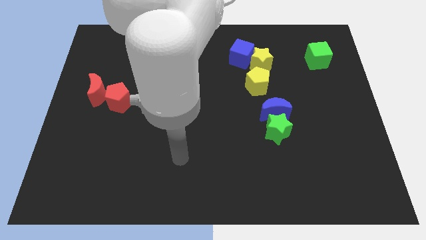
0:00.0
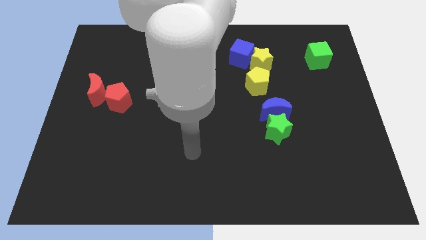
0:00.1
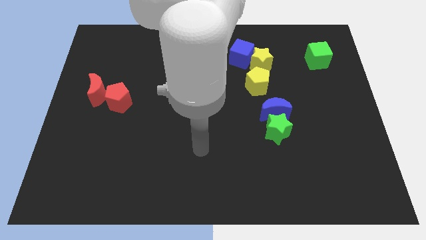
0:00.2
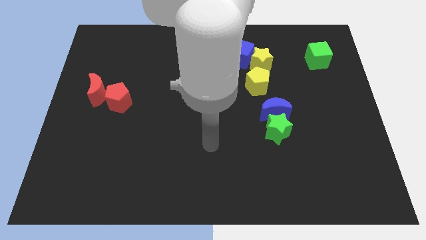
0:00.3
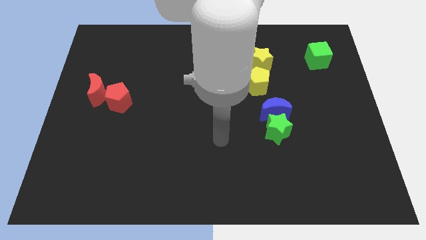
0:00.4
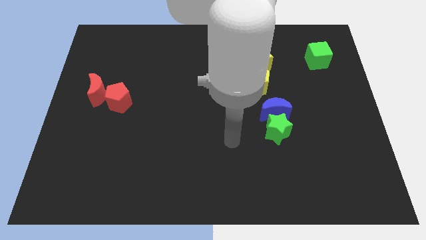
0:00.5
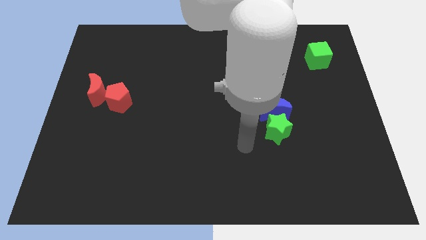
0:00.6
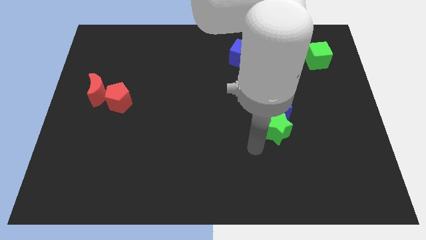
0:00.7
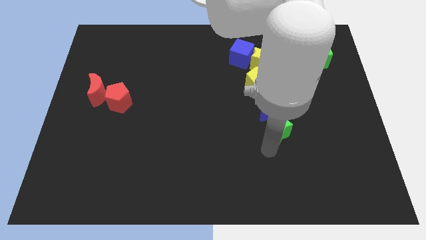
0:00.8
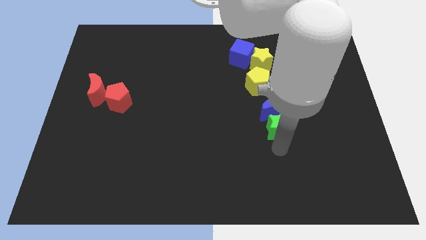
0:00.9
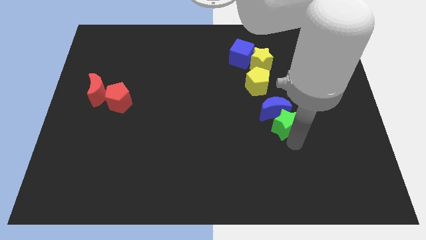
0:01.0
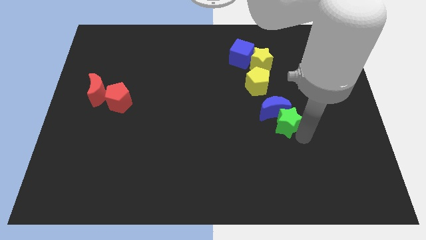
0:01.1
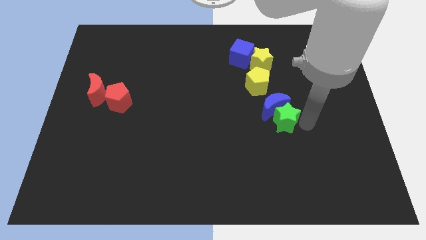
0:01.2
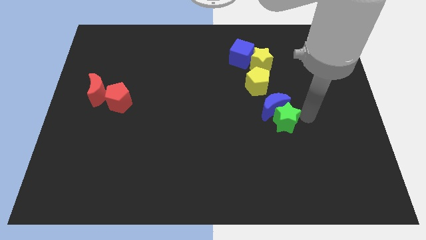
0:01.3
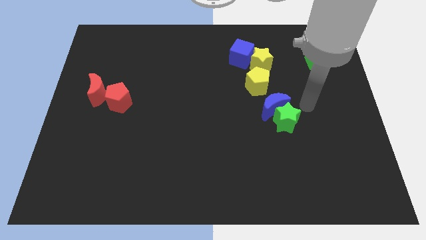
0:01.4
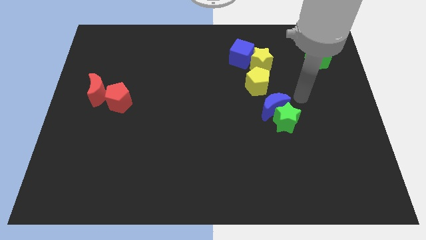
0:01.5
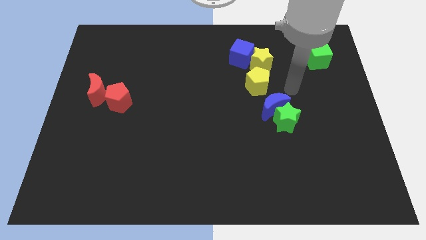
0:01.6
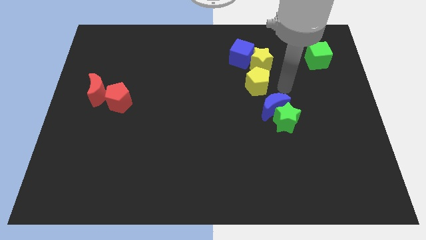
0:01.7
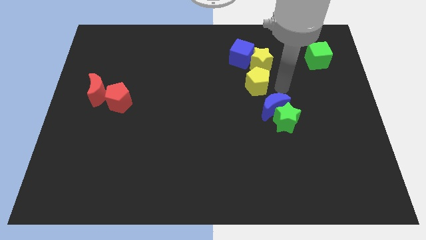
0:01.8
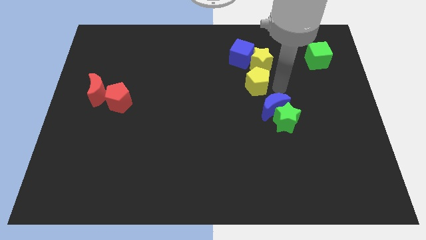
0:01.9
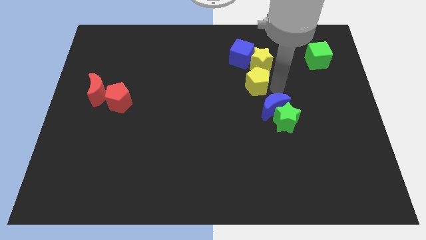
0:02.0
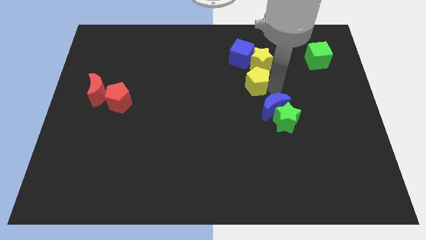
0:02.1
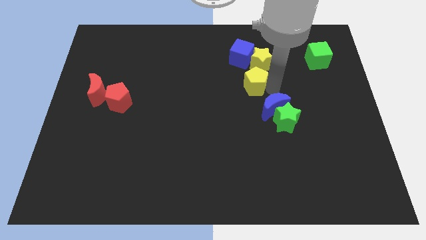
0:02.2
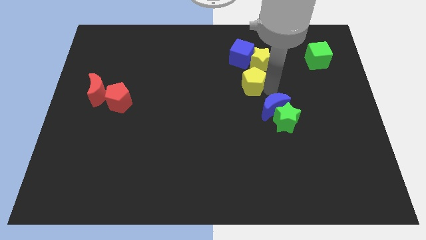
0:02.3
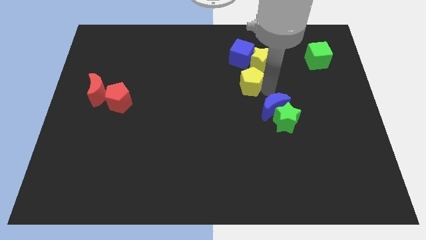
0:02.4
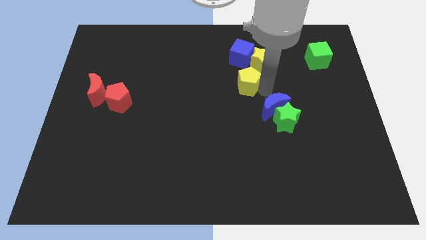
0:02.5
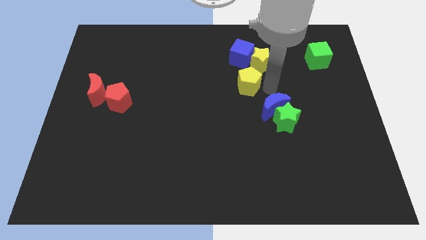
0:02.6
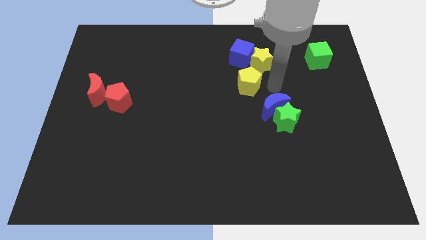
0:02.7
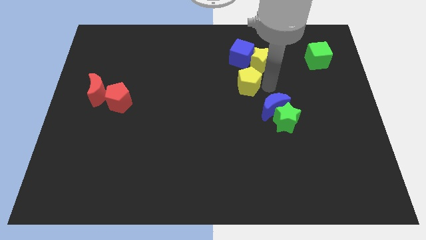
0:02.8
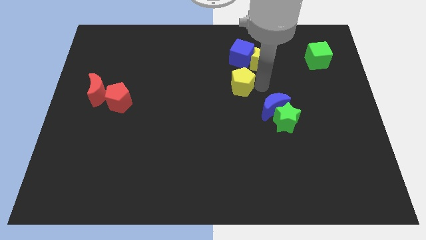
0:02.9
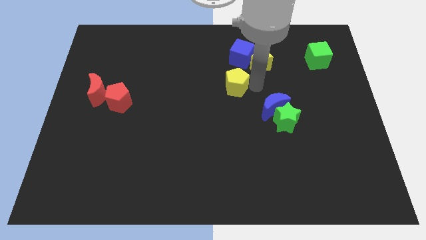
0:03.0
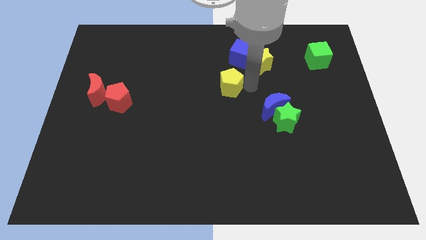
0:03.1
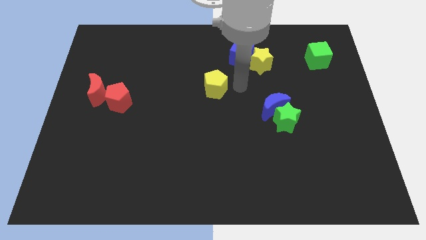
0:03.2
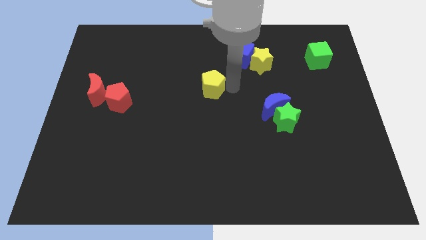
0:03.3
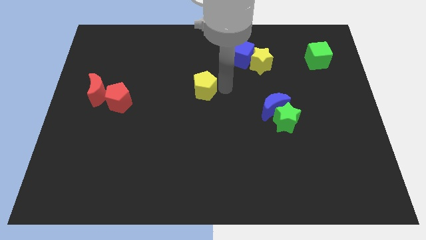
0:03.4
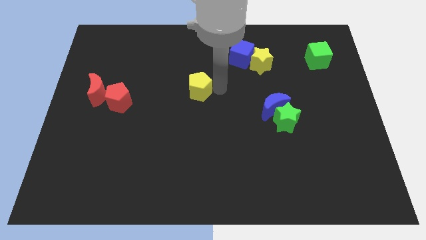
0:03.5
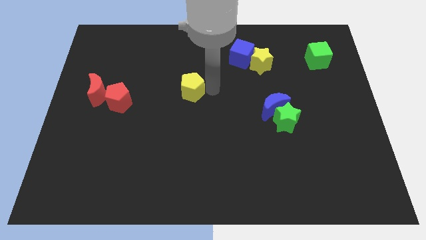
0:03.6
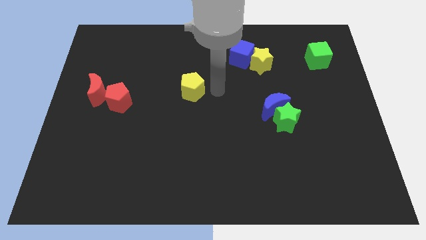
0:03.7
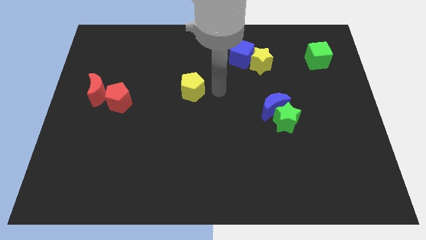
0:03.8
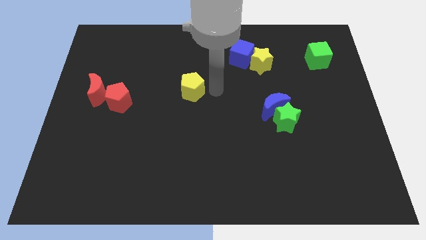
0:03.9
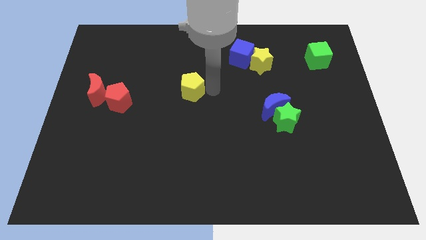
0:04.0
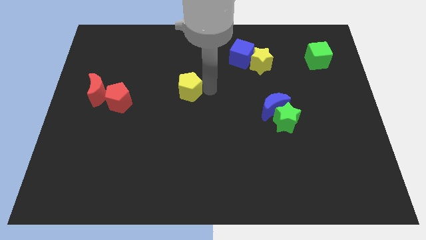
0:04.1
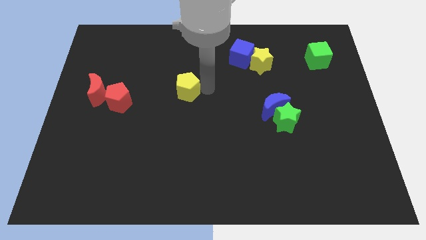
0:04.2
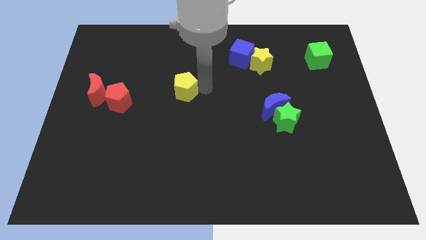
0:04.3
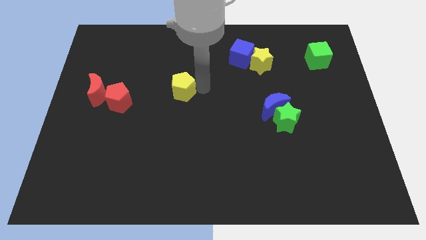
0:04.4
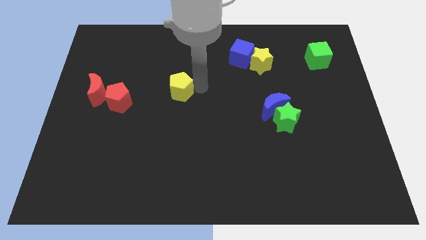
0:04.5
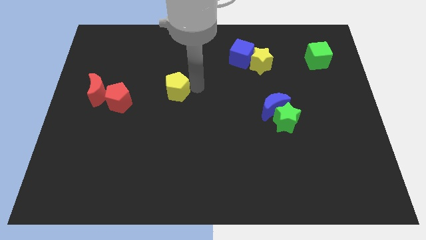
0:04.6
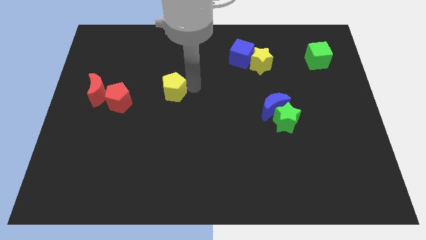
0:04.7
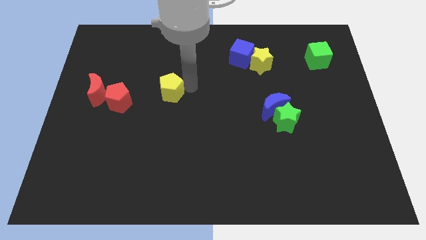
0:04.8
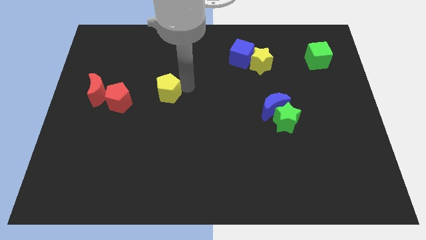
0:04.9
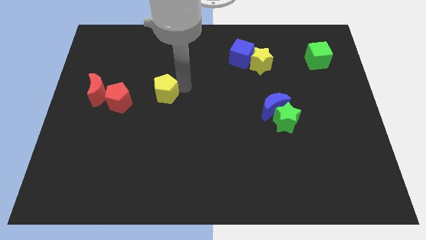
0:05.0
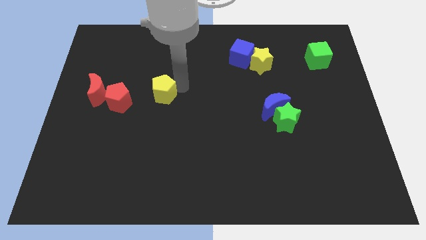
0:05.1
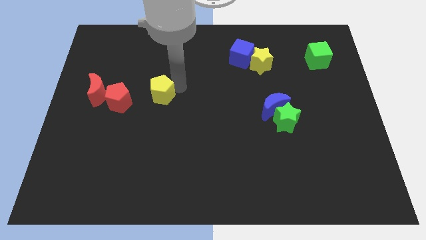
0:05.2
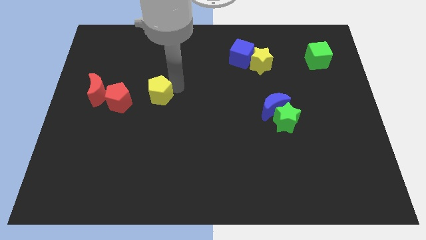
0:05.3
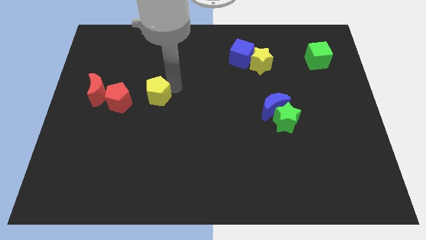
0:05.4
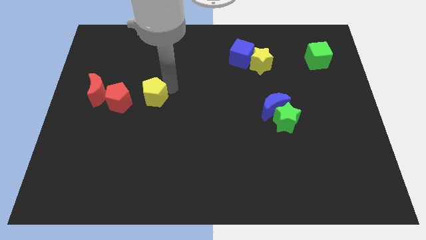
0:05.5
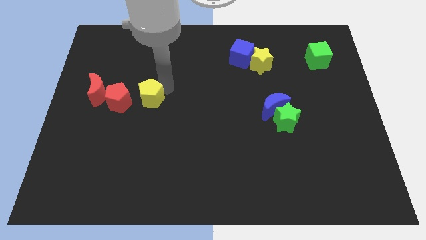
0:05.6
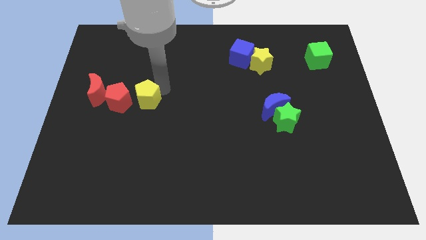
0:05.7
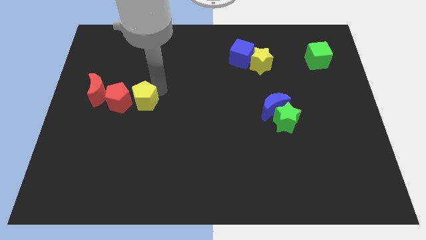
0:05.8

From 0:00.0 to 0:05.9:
push the yellow pentagon close to the red pentagon

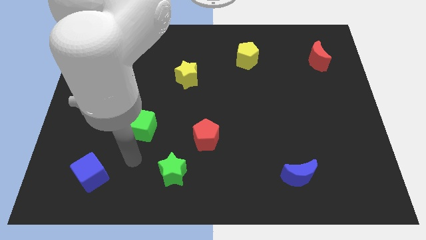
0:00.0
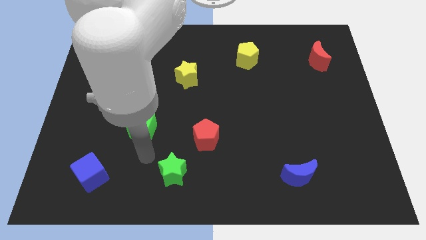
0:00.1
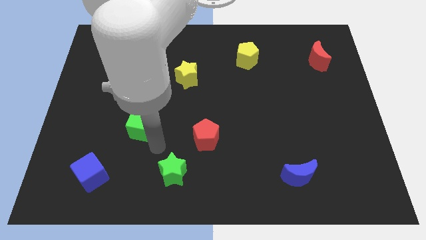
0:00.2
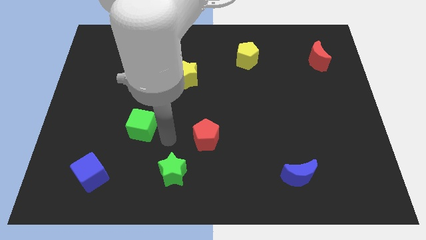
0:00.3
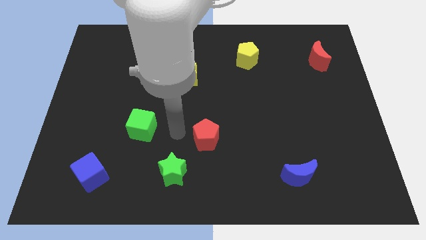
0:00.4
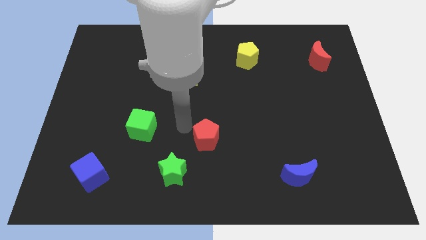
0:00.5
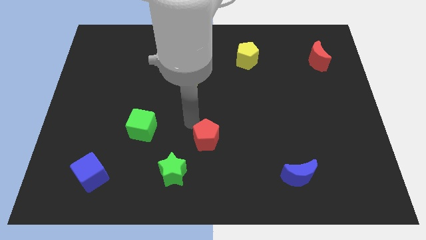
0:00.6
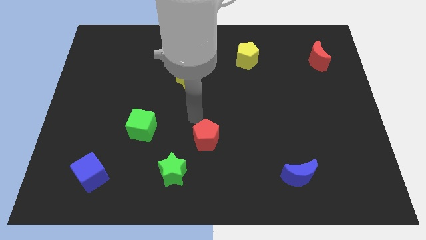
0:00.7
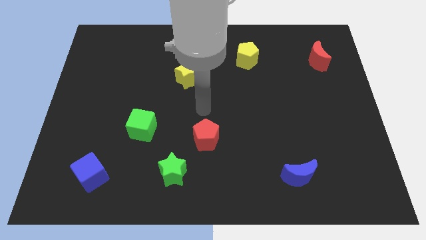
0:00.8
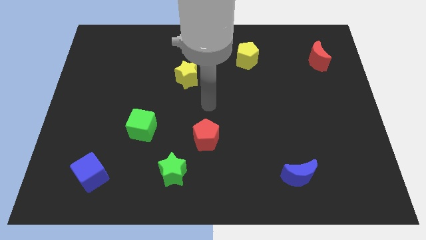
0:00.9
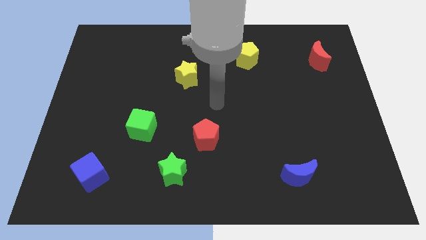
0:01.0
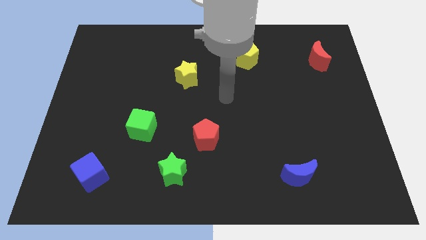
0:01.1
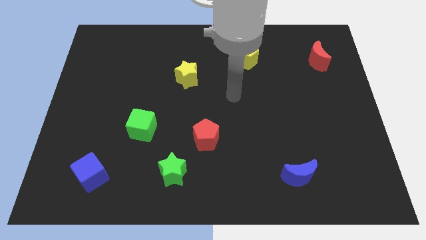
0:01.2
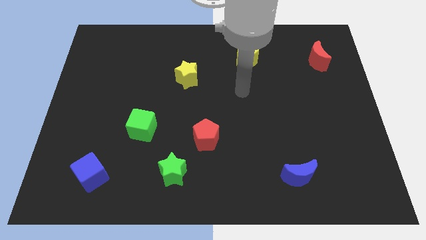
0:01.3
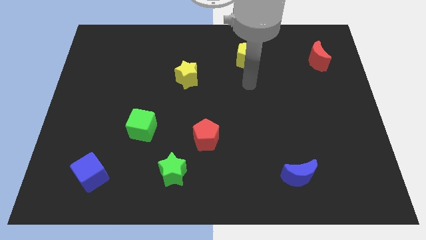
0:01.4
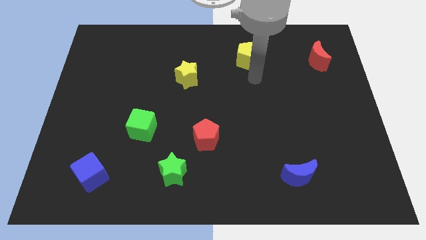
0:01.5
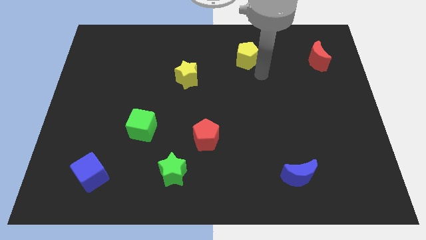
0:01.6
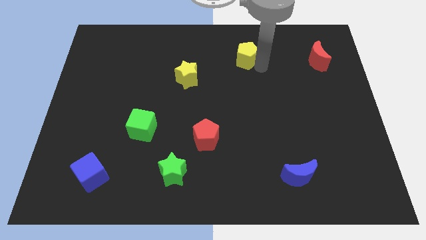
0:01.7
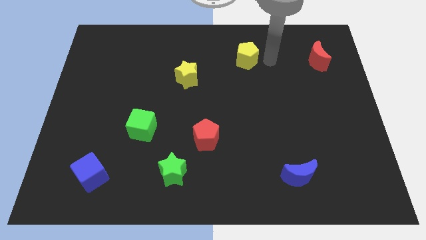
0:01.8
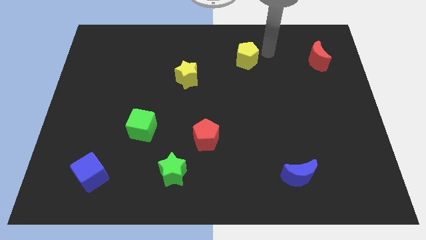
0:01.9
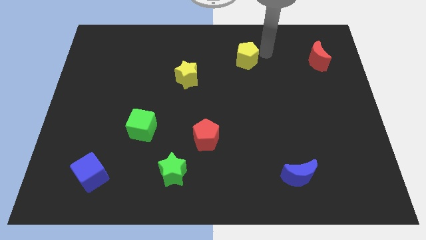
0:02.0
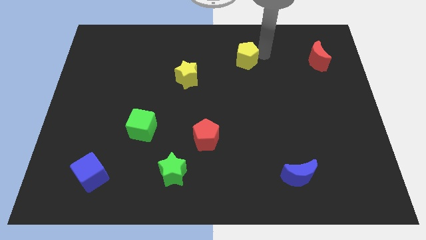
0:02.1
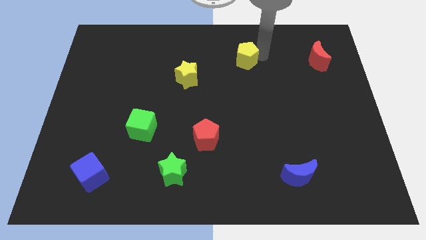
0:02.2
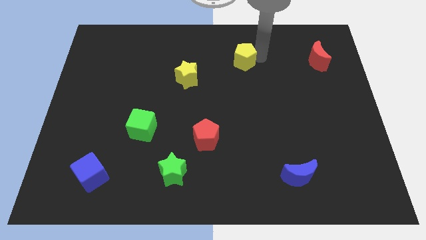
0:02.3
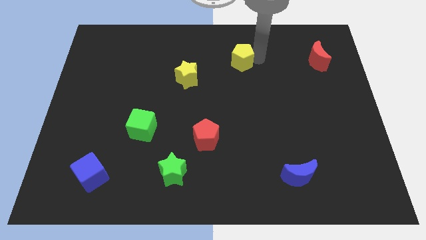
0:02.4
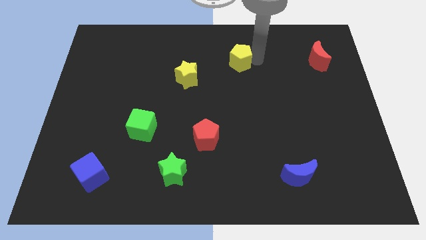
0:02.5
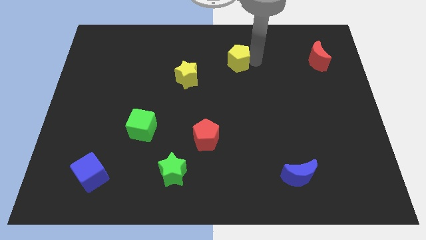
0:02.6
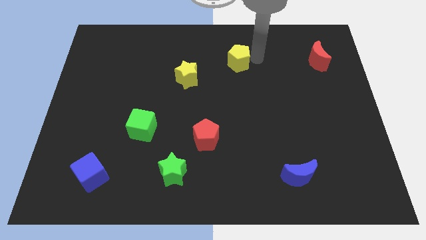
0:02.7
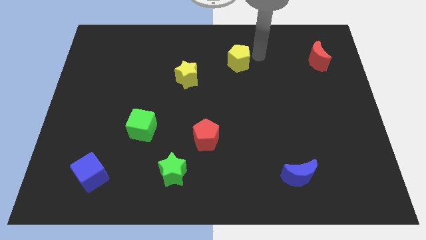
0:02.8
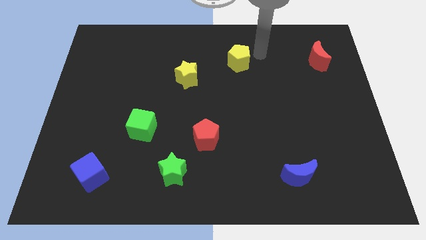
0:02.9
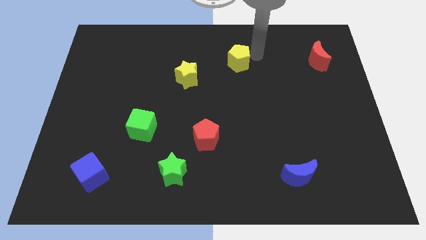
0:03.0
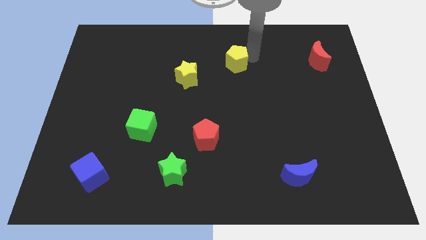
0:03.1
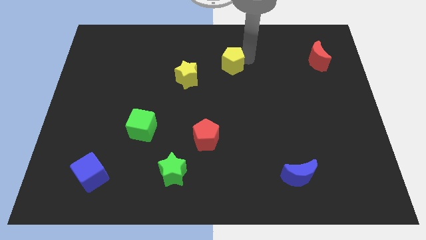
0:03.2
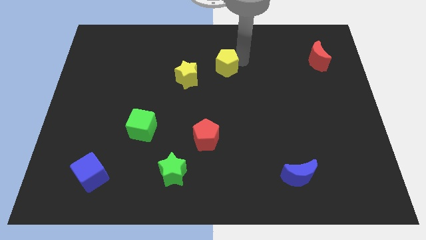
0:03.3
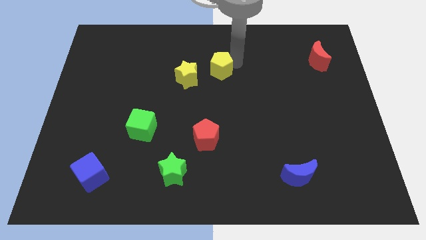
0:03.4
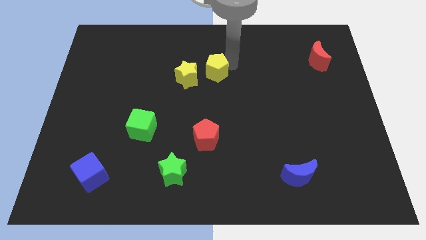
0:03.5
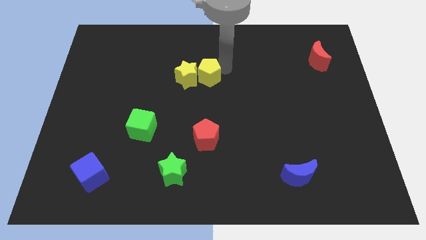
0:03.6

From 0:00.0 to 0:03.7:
push the yellow pentagon next to the yellow star
